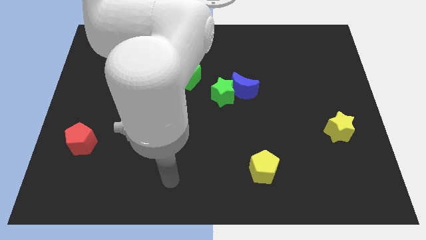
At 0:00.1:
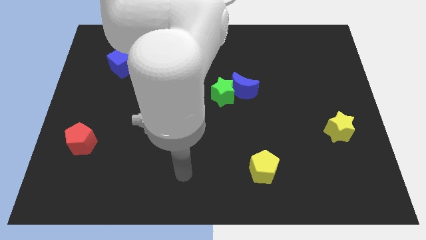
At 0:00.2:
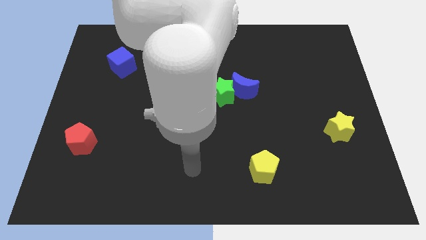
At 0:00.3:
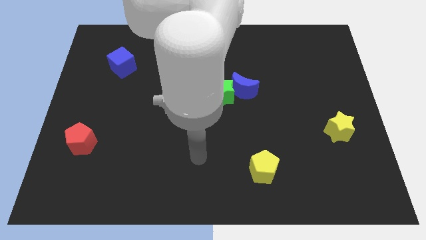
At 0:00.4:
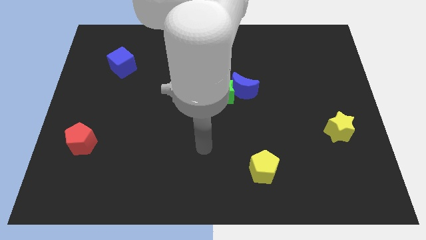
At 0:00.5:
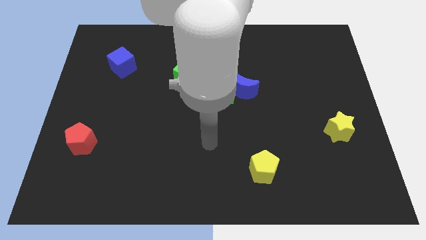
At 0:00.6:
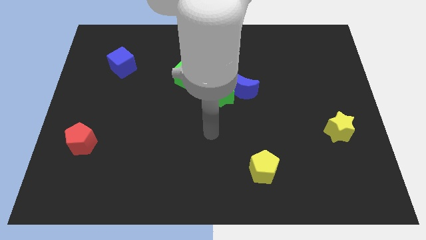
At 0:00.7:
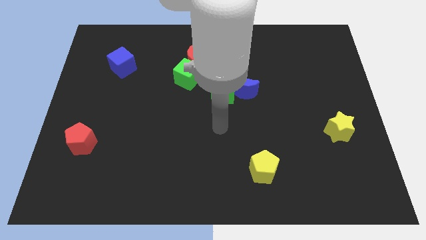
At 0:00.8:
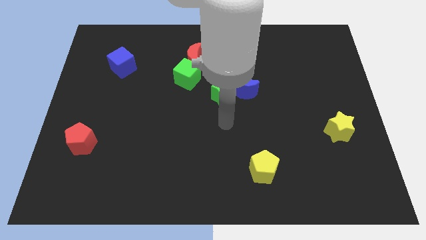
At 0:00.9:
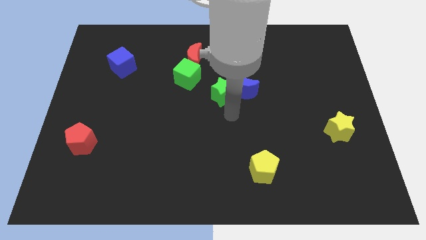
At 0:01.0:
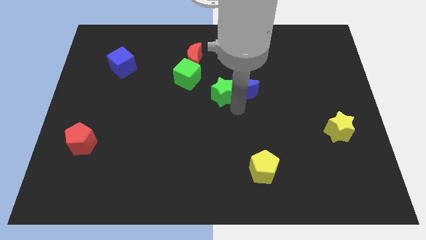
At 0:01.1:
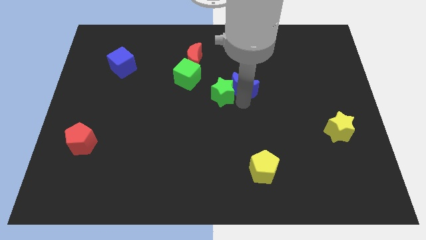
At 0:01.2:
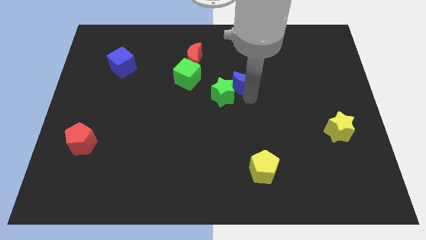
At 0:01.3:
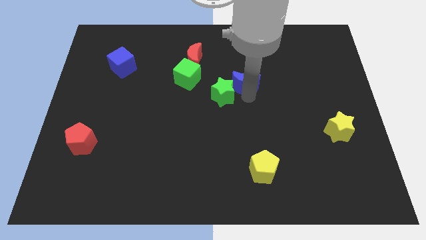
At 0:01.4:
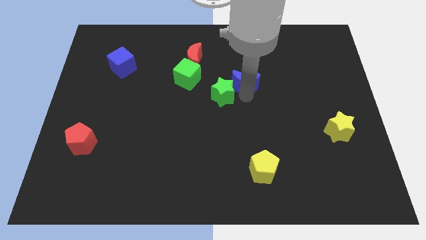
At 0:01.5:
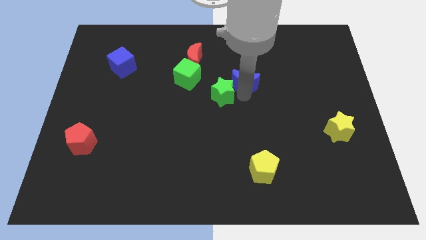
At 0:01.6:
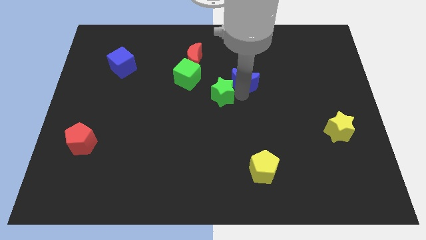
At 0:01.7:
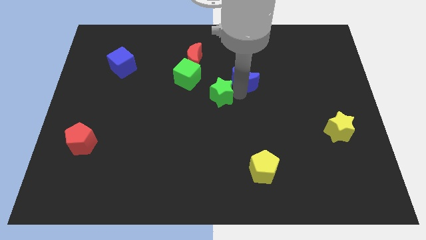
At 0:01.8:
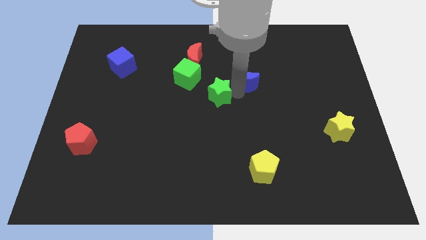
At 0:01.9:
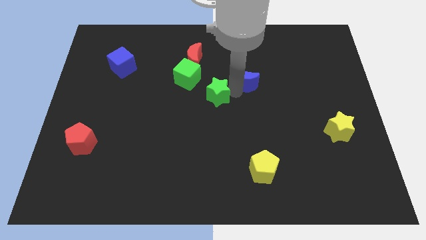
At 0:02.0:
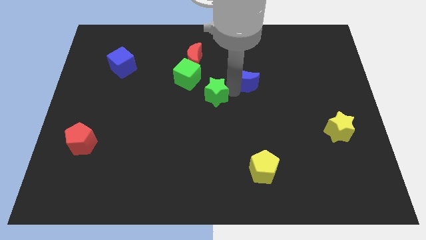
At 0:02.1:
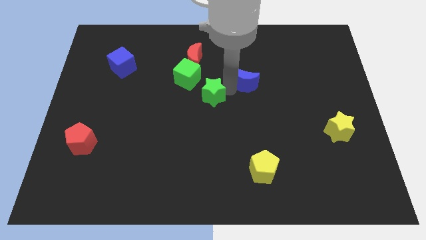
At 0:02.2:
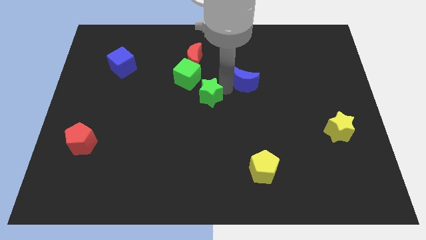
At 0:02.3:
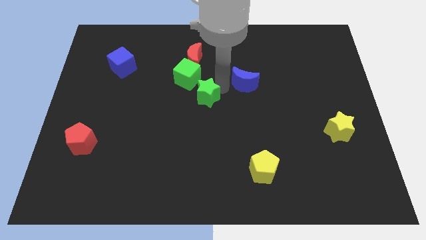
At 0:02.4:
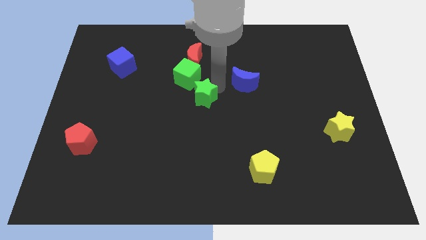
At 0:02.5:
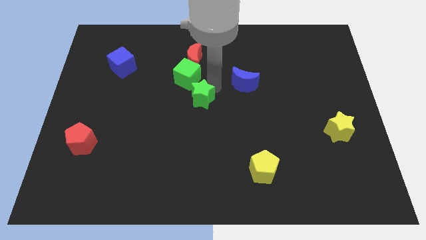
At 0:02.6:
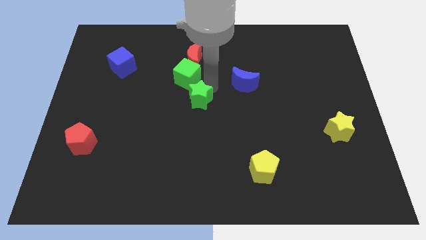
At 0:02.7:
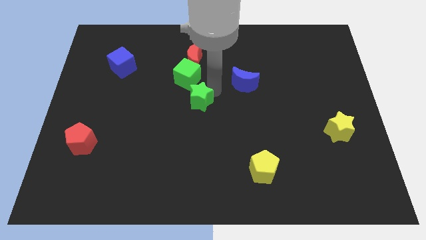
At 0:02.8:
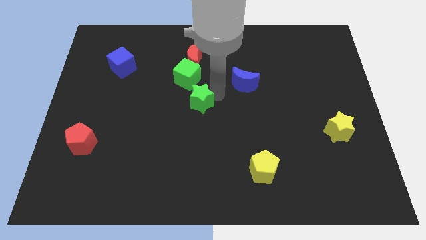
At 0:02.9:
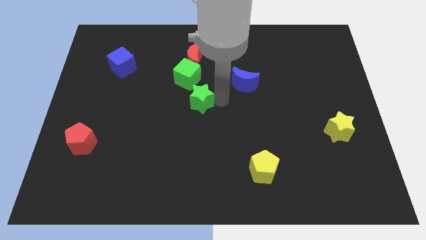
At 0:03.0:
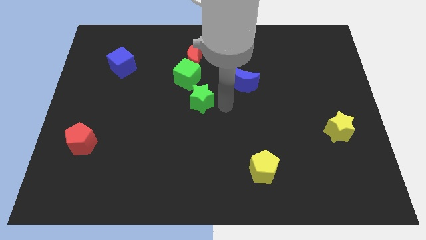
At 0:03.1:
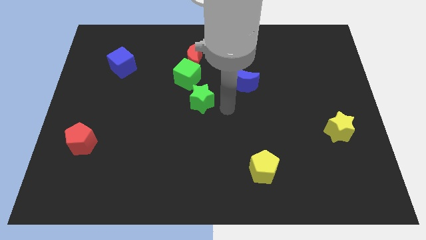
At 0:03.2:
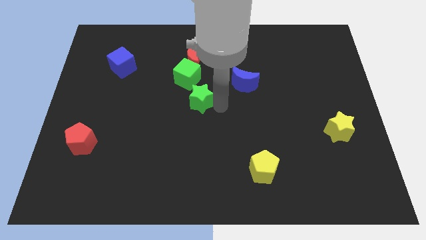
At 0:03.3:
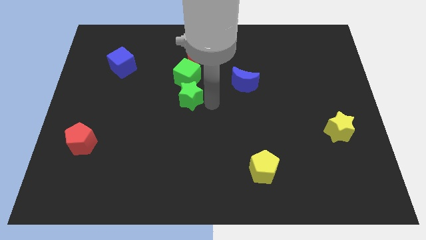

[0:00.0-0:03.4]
slide the green star a little to the left

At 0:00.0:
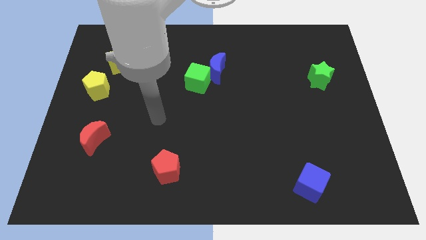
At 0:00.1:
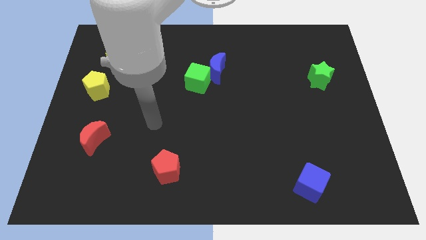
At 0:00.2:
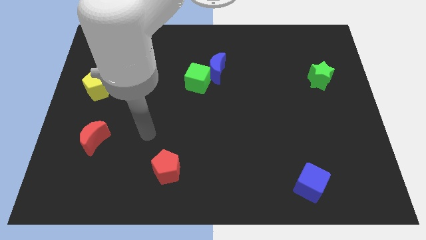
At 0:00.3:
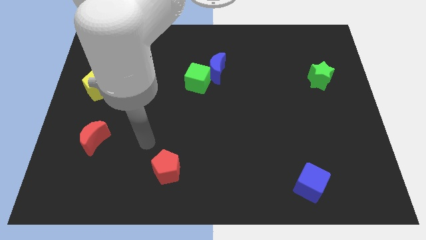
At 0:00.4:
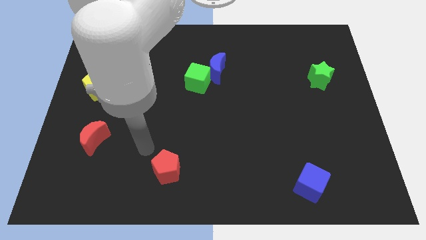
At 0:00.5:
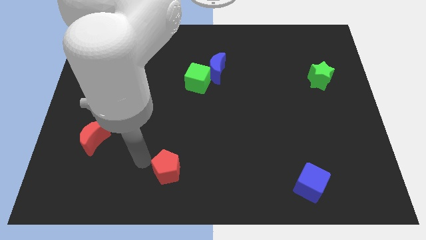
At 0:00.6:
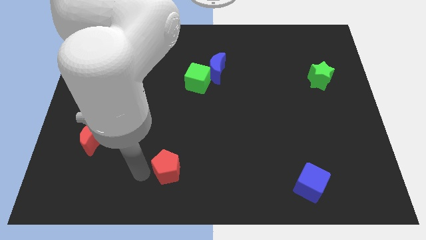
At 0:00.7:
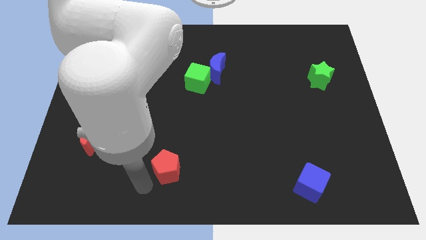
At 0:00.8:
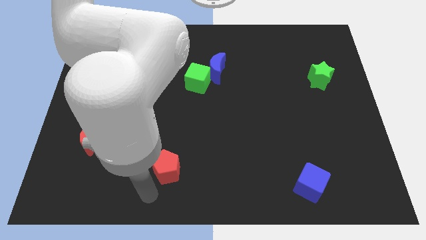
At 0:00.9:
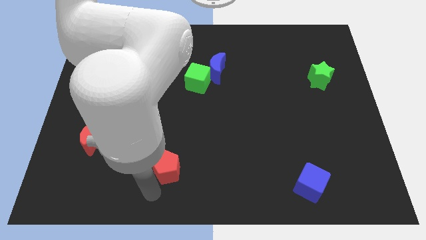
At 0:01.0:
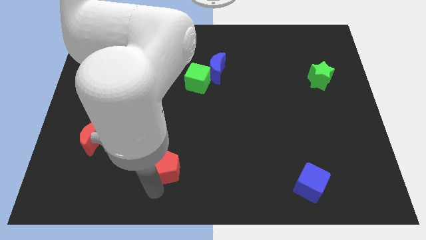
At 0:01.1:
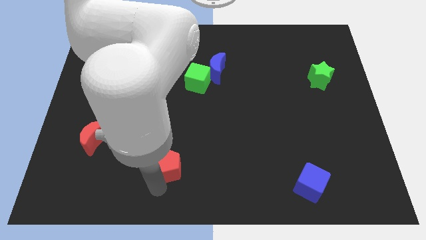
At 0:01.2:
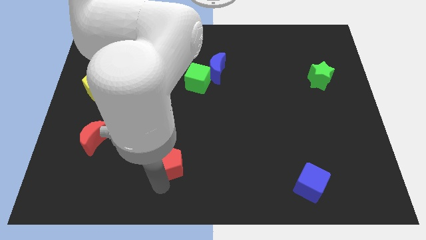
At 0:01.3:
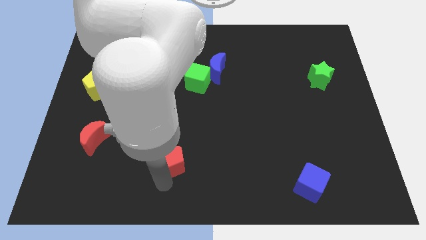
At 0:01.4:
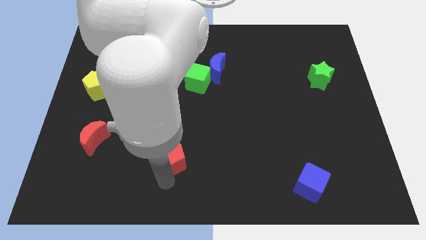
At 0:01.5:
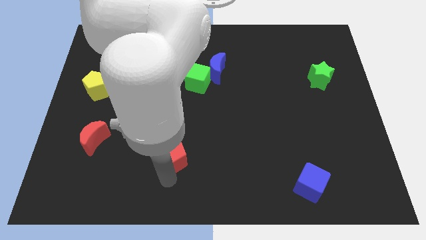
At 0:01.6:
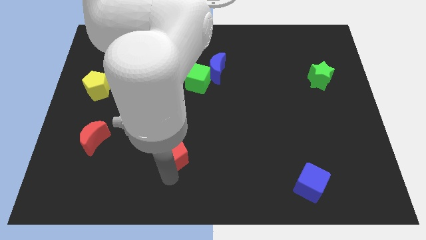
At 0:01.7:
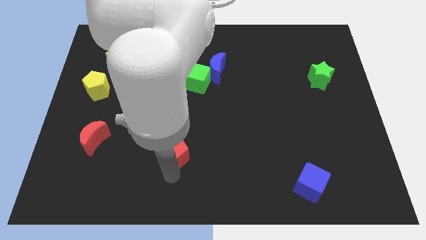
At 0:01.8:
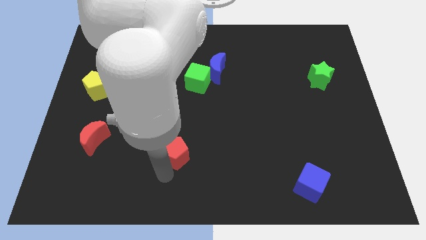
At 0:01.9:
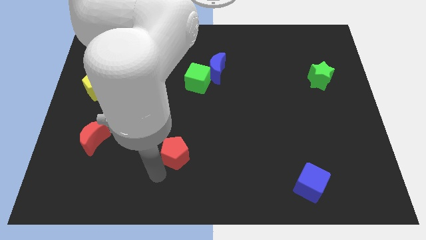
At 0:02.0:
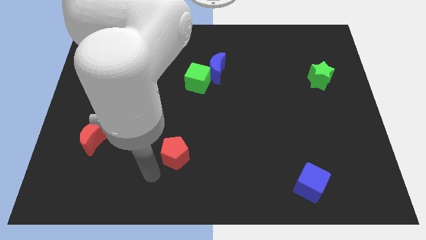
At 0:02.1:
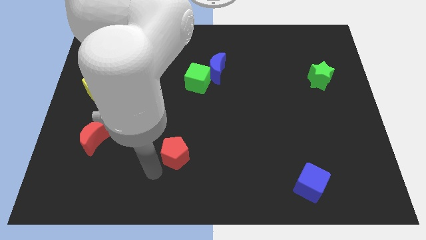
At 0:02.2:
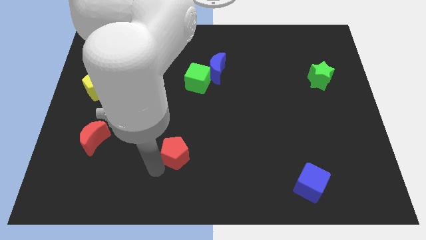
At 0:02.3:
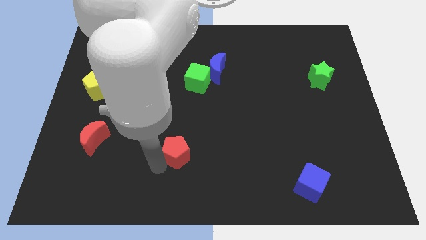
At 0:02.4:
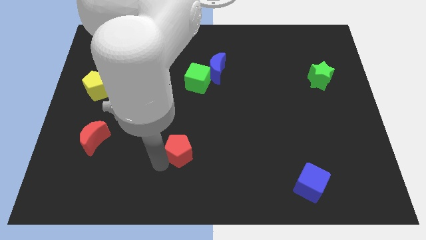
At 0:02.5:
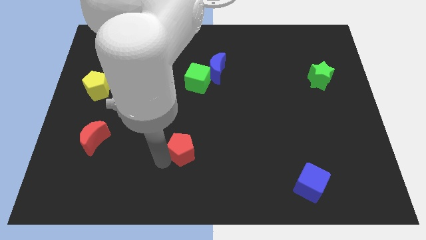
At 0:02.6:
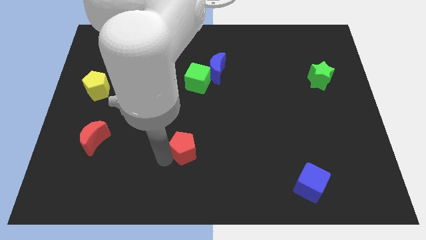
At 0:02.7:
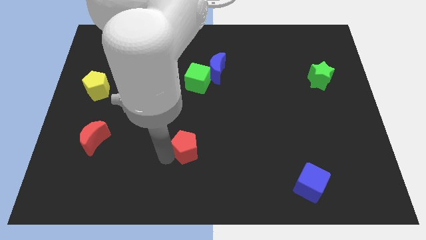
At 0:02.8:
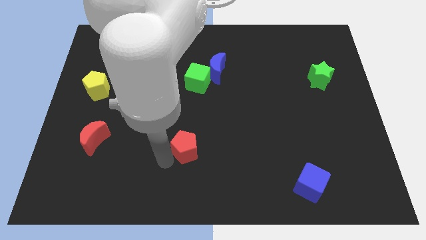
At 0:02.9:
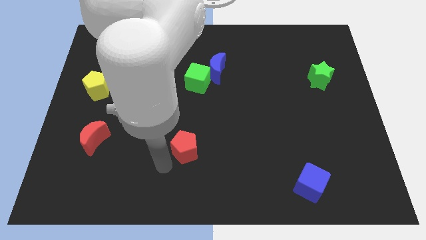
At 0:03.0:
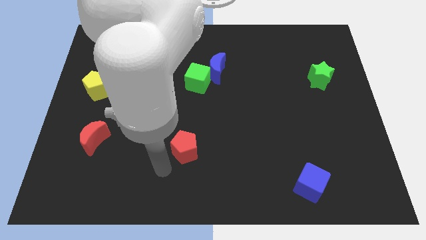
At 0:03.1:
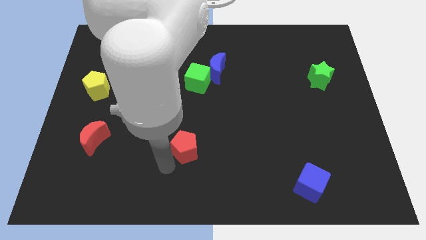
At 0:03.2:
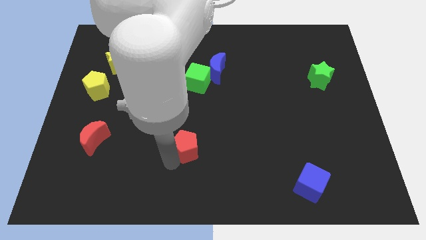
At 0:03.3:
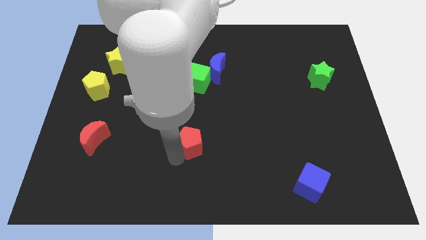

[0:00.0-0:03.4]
slide the red pentagon slightly upwards and right

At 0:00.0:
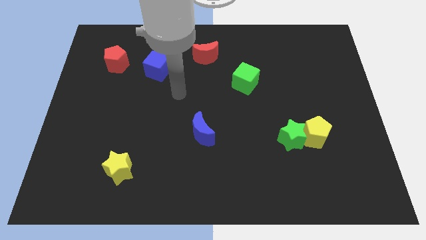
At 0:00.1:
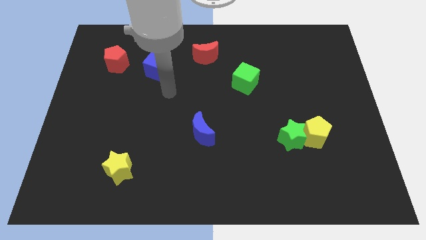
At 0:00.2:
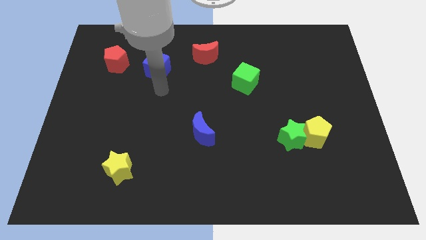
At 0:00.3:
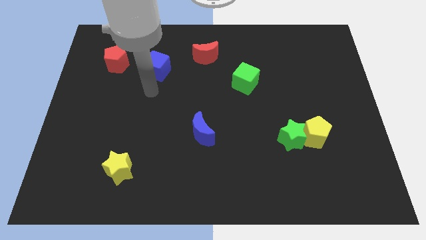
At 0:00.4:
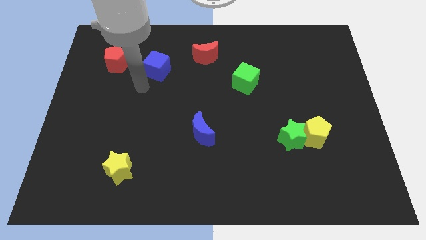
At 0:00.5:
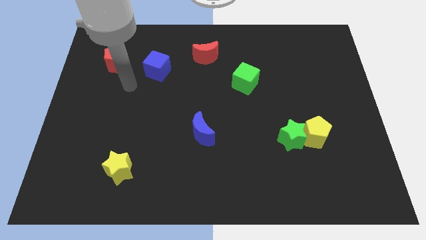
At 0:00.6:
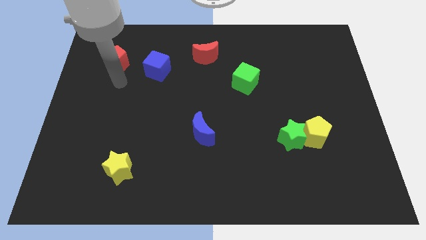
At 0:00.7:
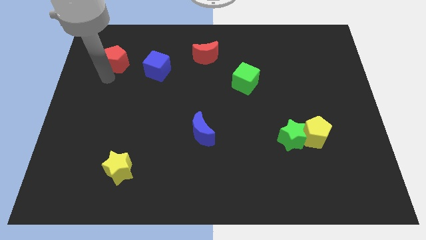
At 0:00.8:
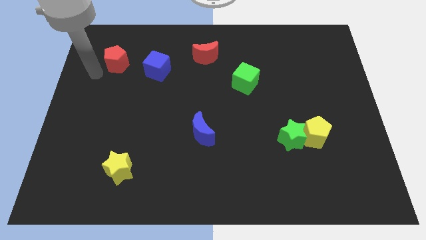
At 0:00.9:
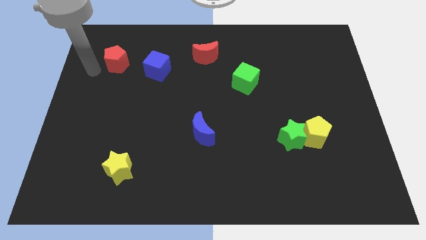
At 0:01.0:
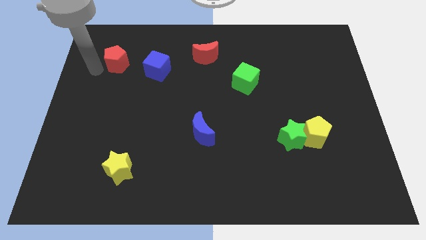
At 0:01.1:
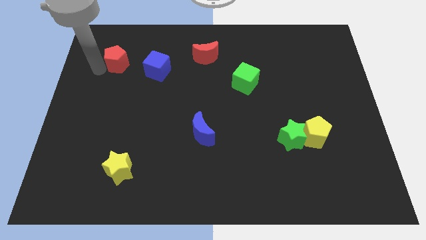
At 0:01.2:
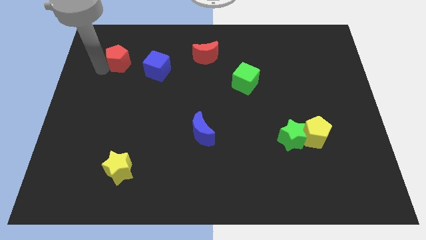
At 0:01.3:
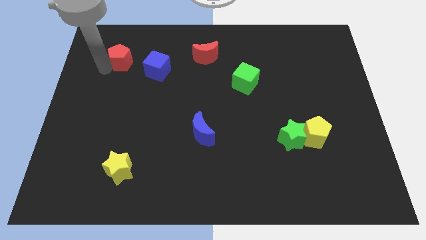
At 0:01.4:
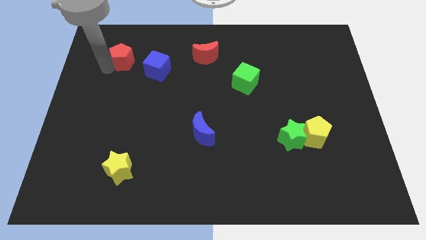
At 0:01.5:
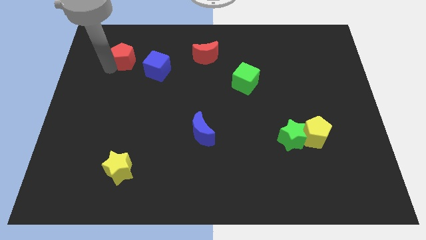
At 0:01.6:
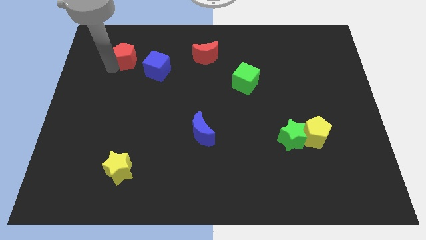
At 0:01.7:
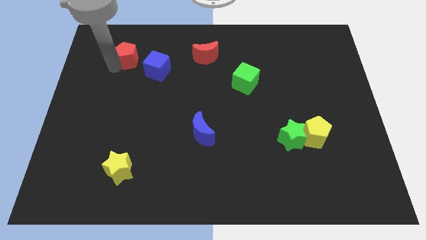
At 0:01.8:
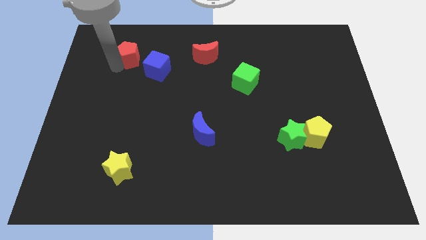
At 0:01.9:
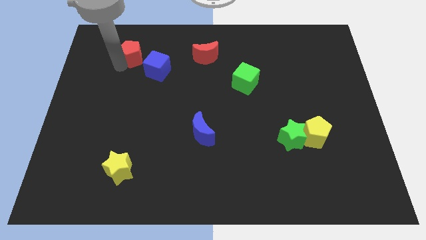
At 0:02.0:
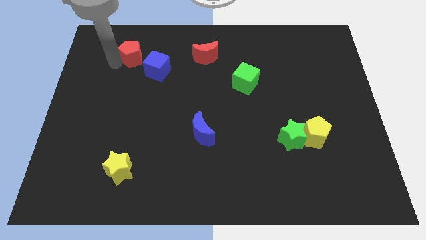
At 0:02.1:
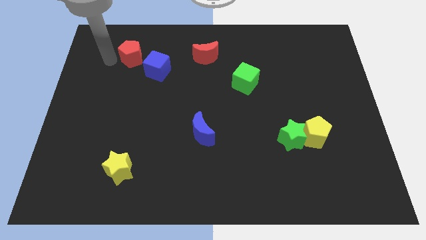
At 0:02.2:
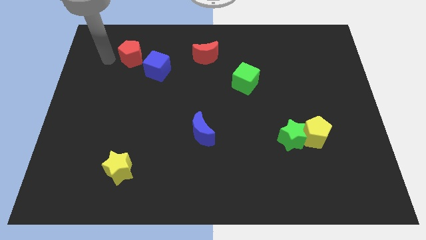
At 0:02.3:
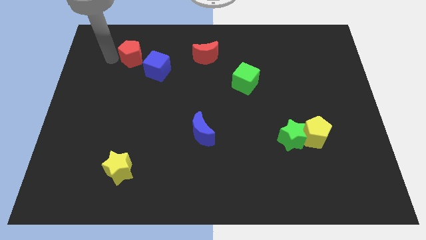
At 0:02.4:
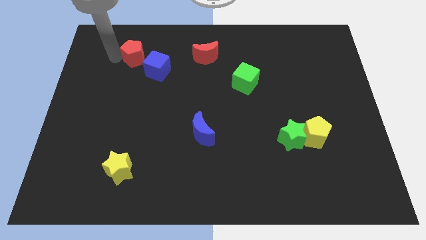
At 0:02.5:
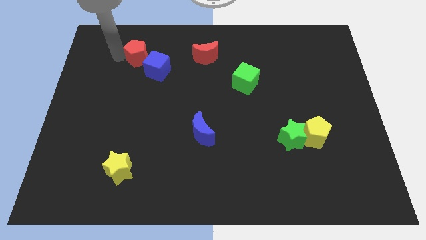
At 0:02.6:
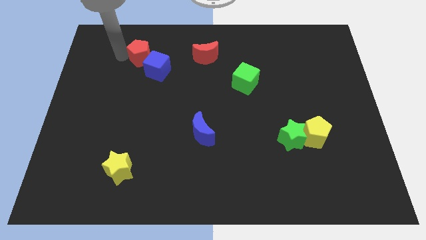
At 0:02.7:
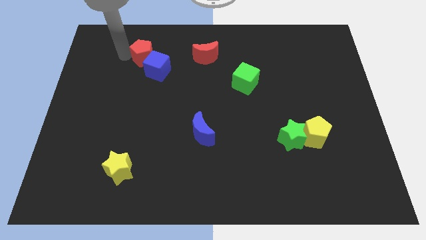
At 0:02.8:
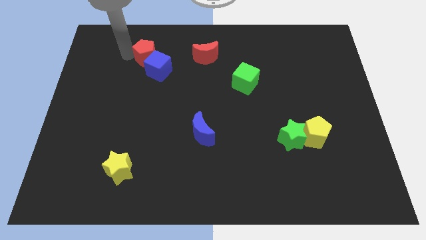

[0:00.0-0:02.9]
slightly push the red pentagon right
